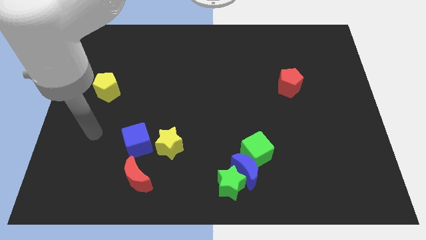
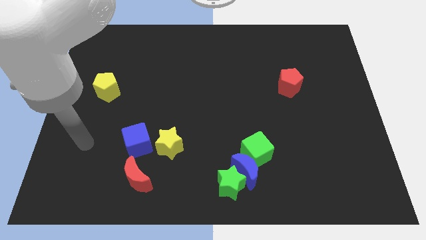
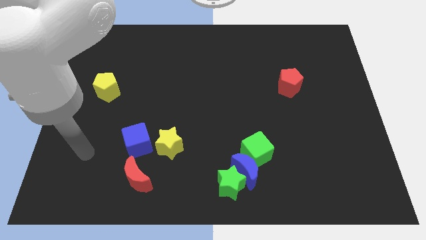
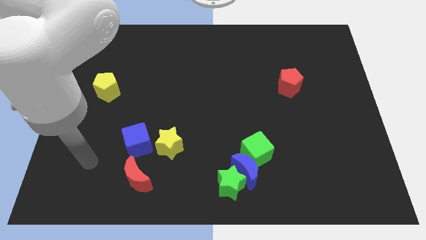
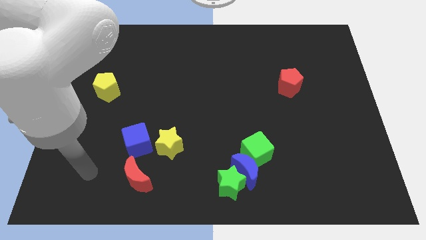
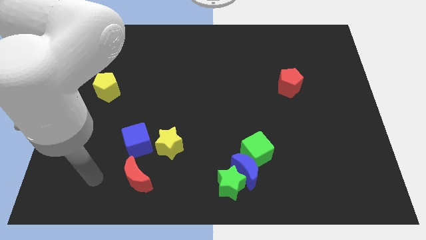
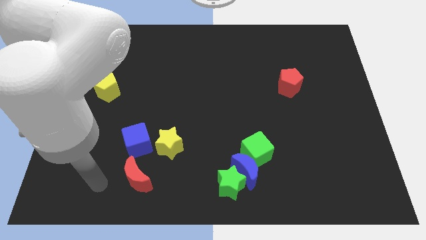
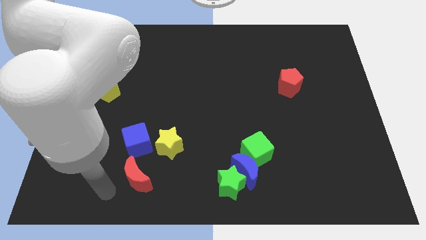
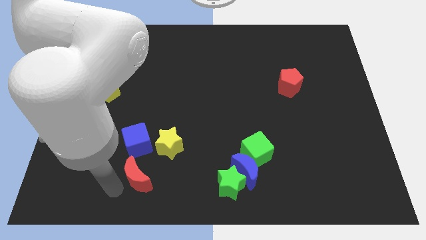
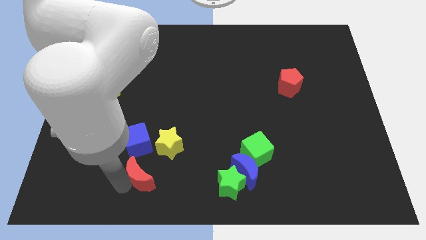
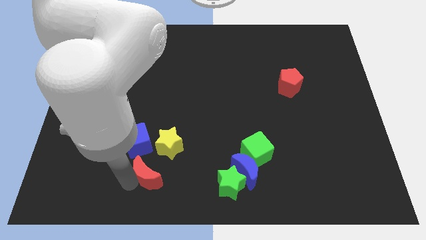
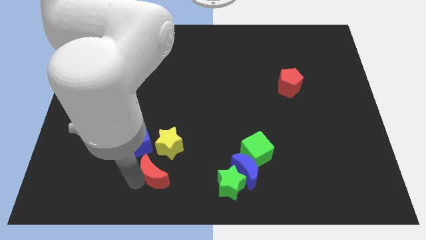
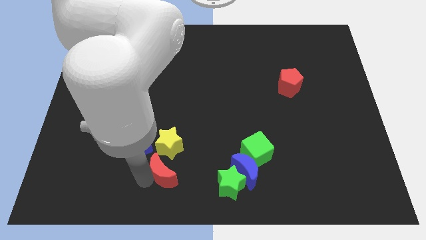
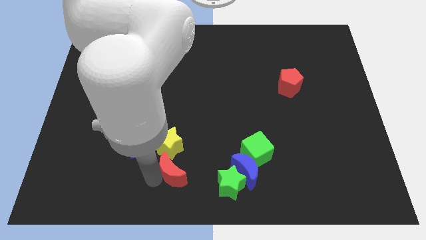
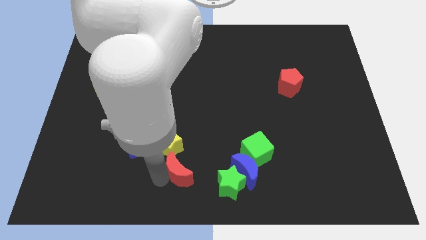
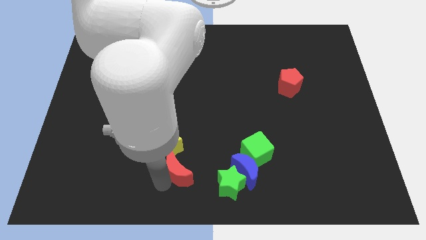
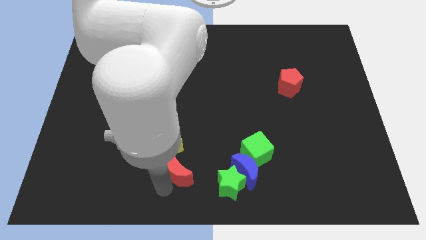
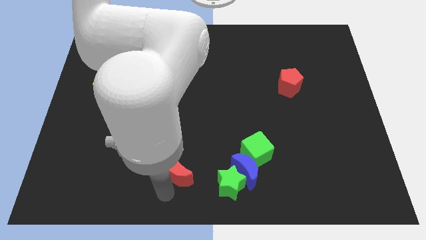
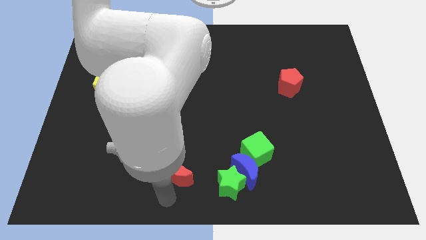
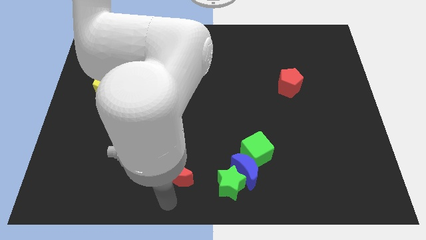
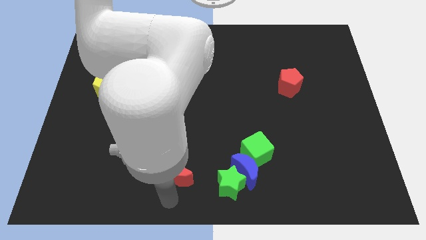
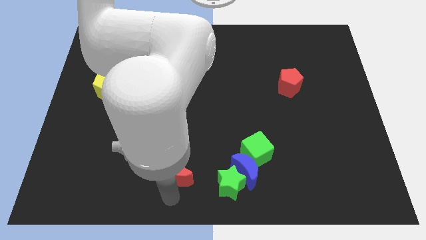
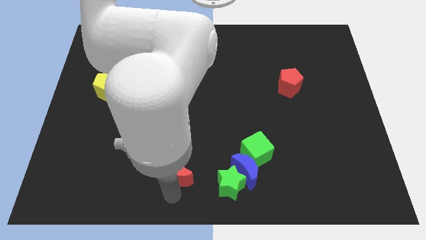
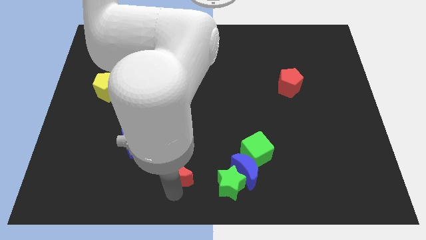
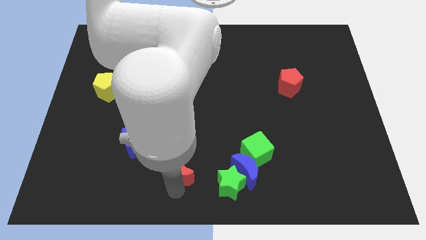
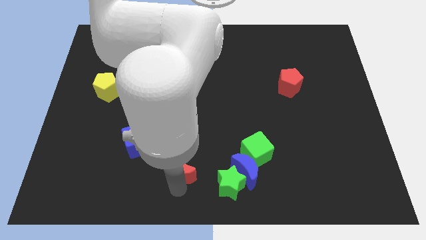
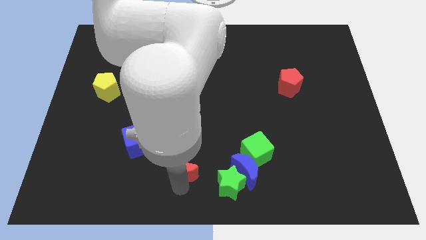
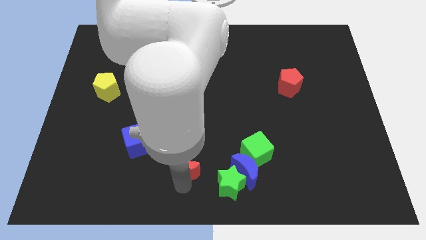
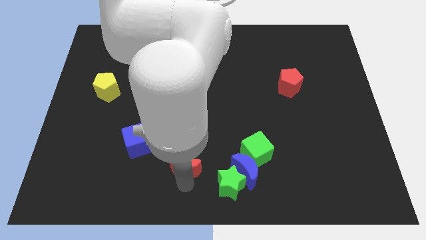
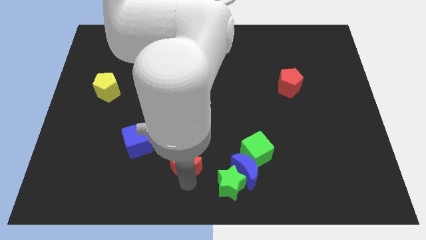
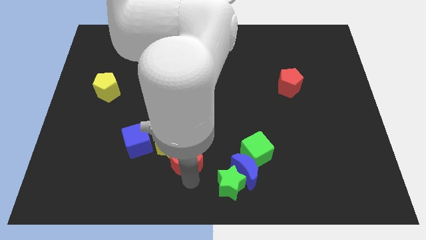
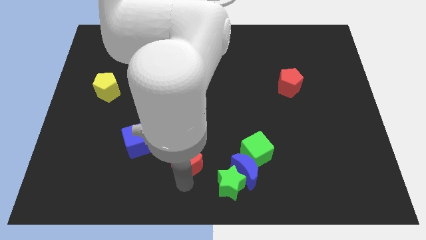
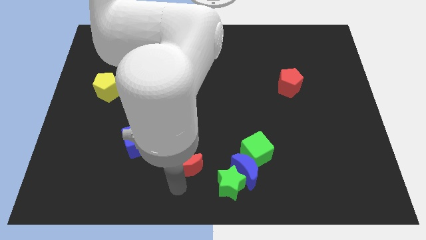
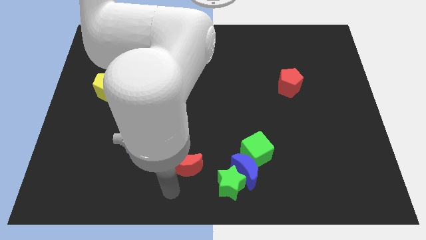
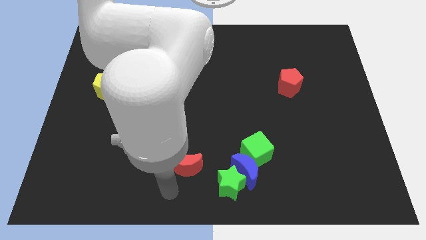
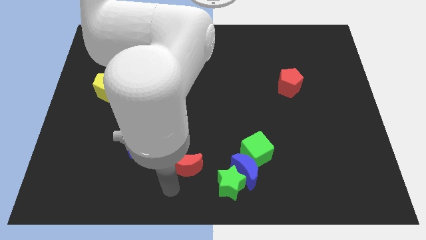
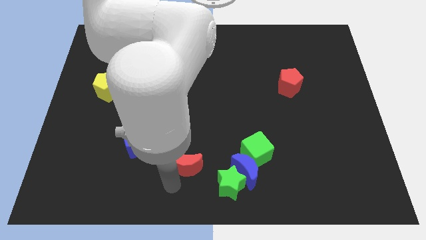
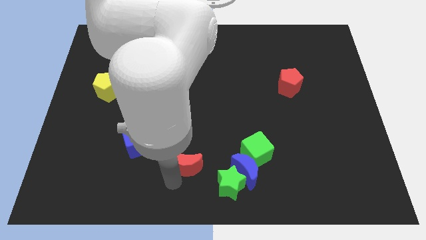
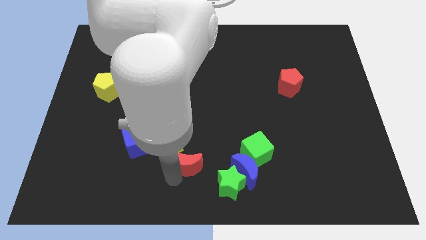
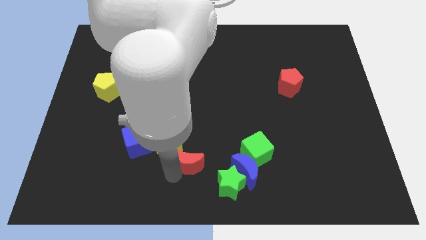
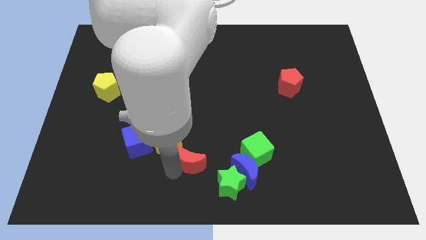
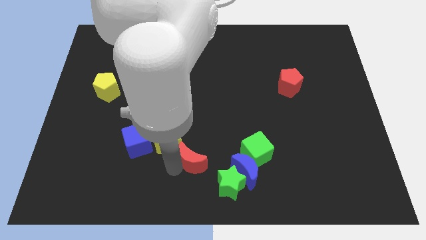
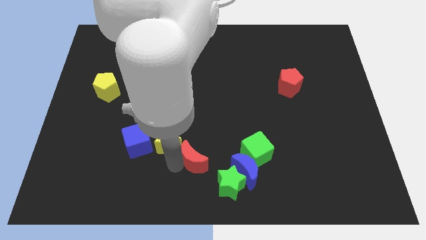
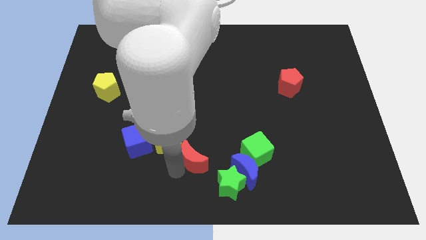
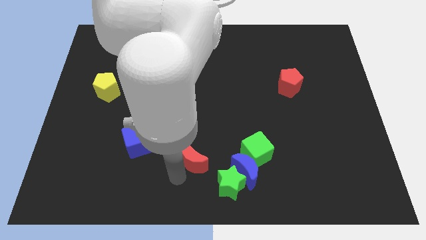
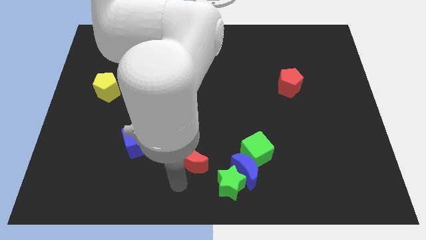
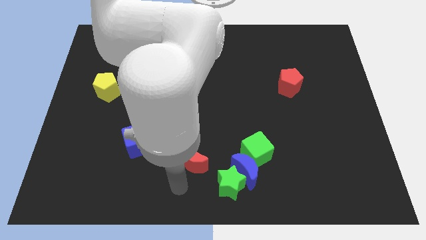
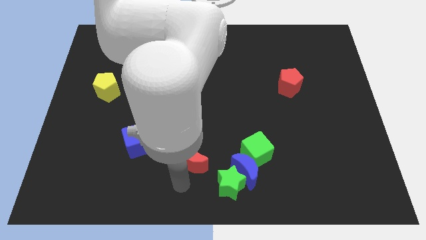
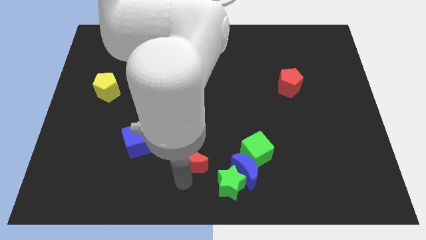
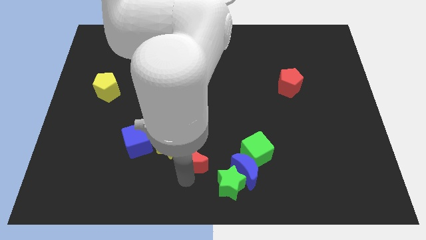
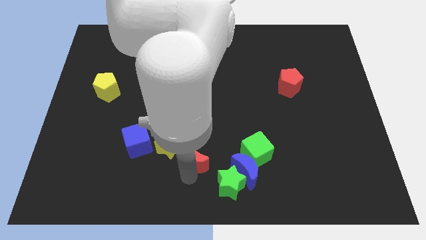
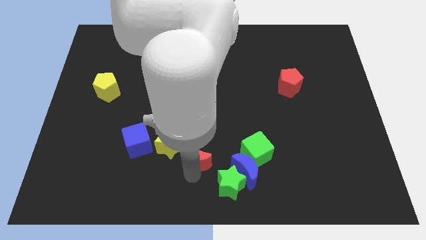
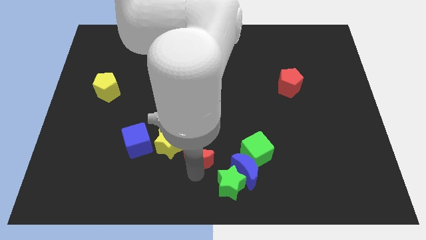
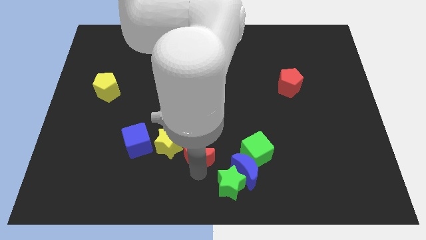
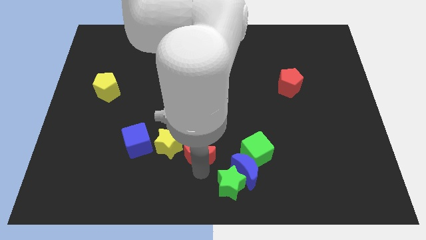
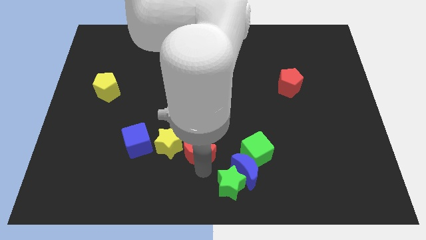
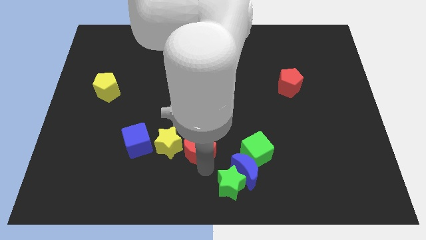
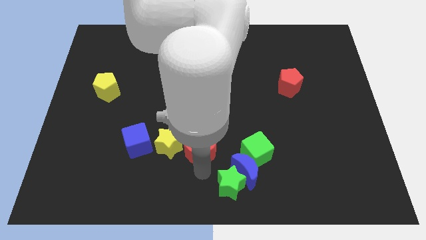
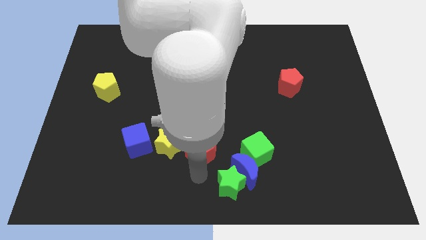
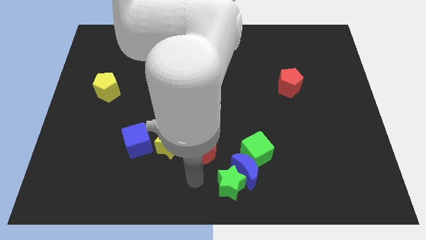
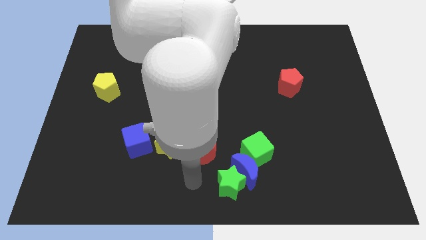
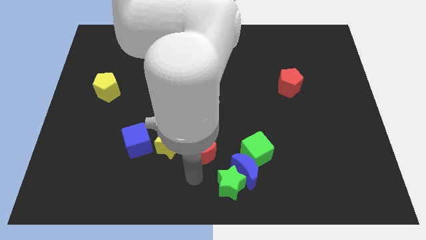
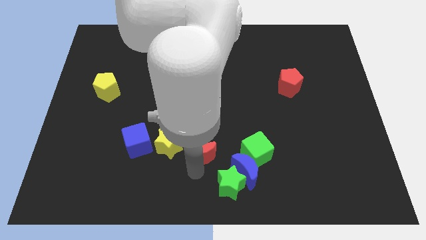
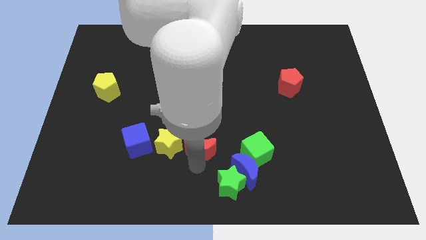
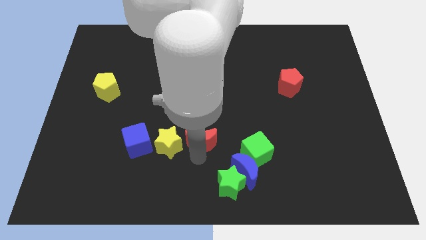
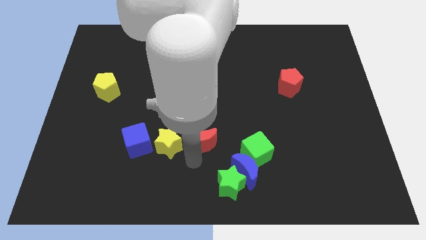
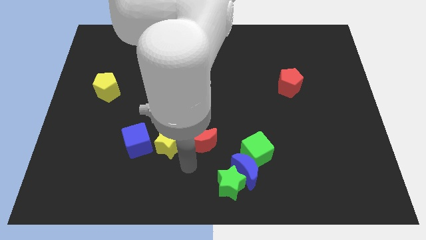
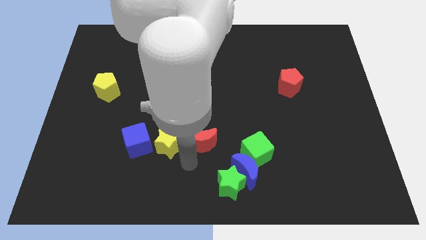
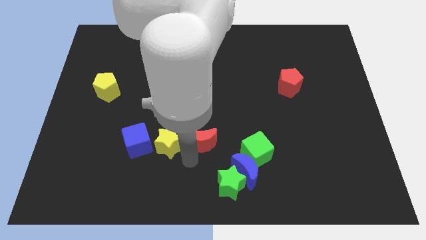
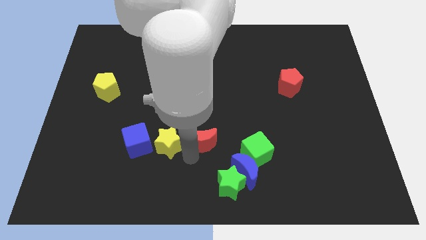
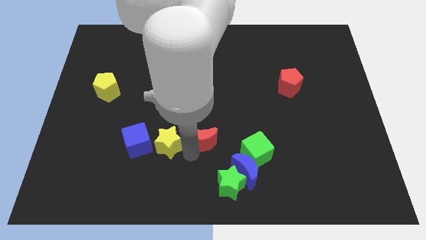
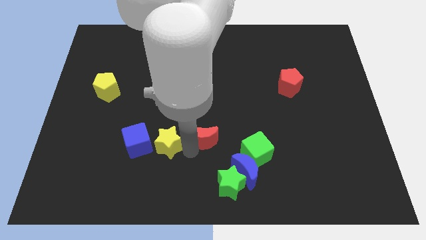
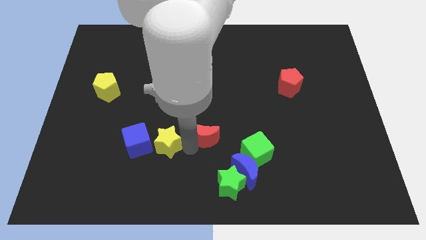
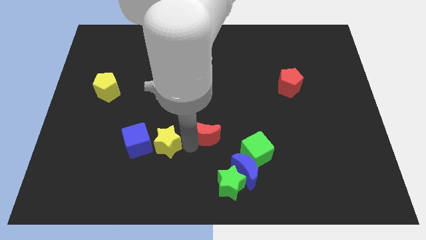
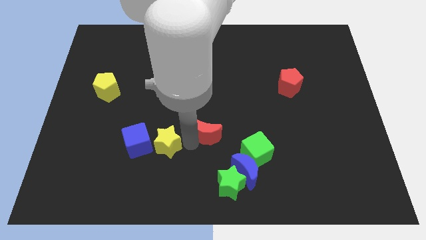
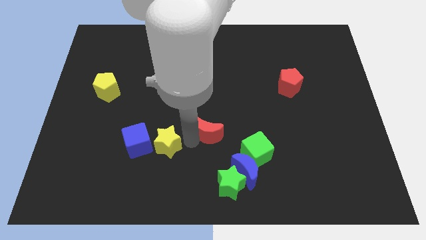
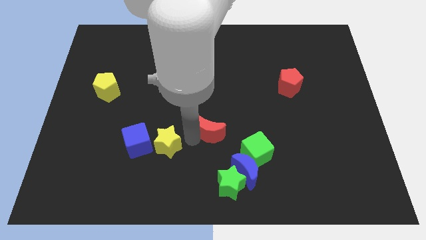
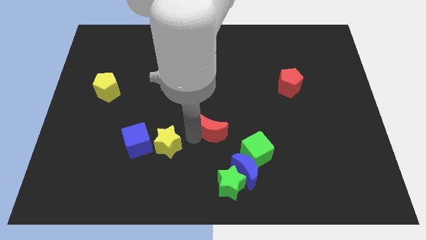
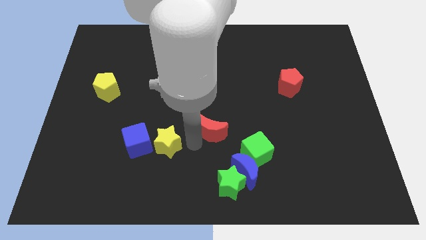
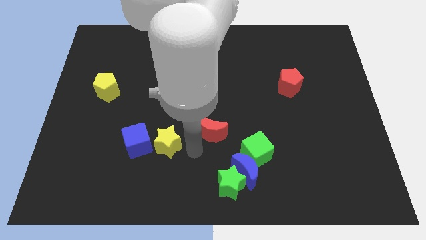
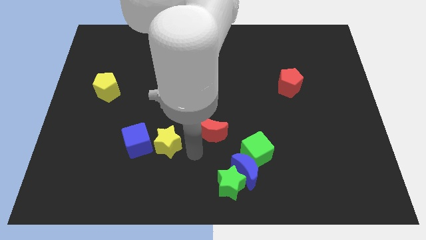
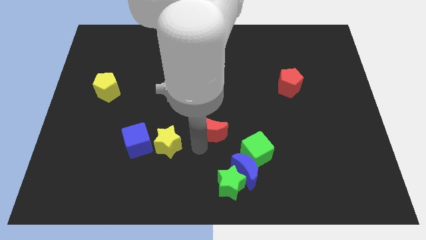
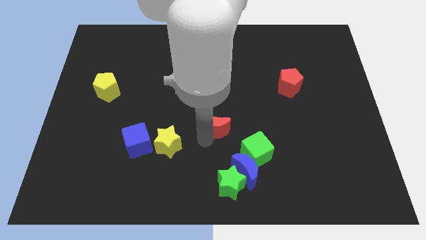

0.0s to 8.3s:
push the red moon diagonally up and to the right
